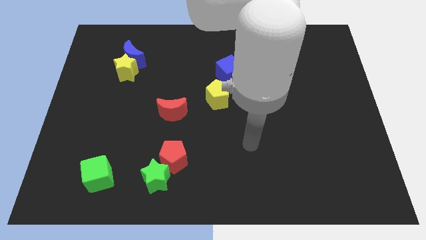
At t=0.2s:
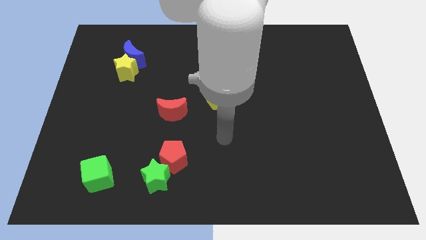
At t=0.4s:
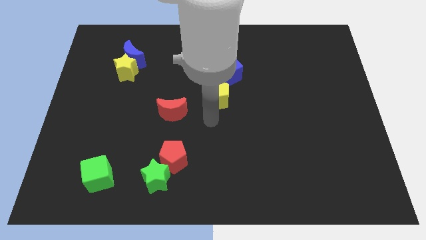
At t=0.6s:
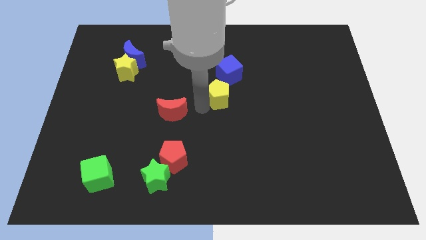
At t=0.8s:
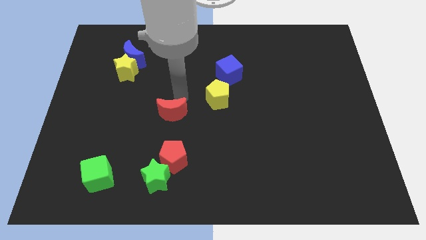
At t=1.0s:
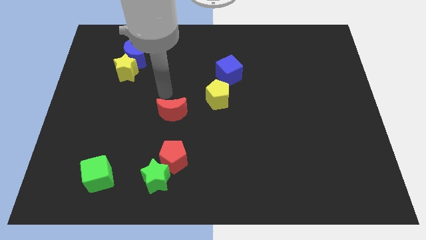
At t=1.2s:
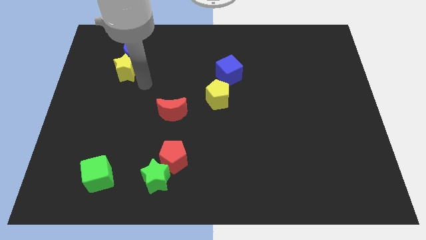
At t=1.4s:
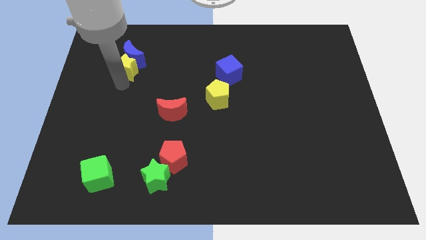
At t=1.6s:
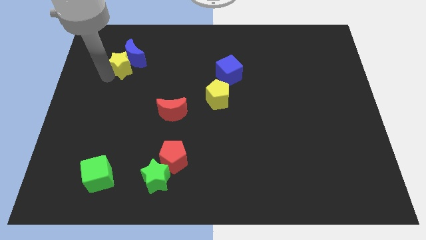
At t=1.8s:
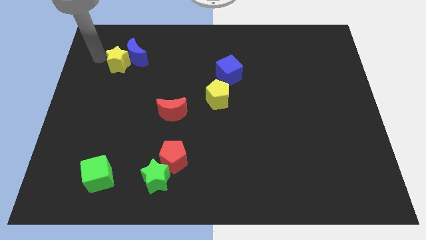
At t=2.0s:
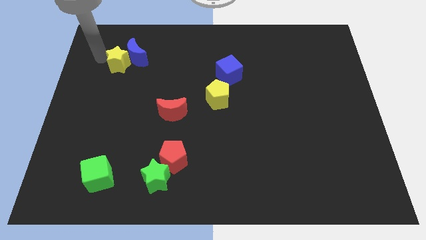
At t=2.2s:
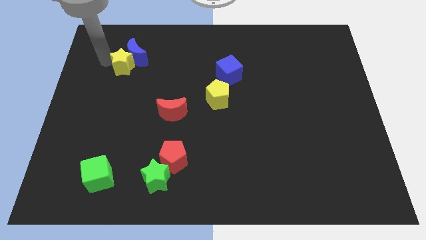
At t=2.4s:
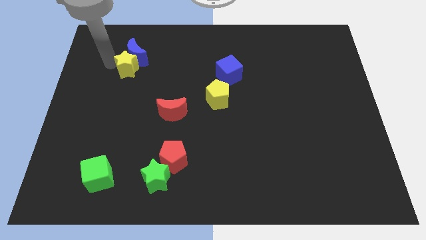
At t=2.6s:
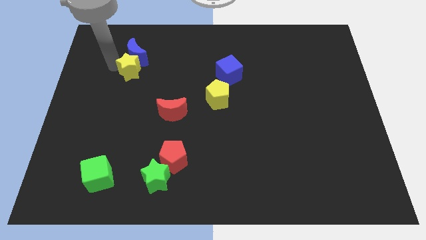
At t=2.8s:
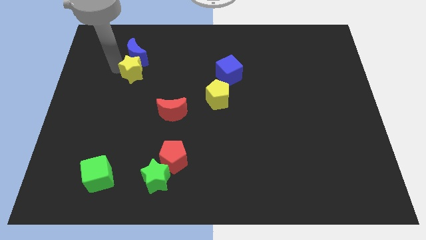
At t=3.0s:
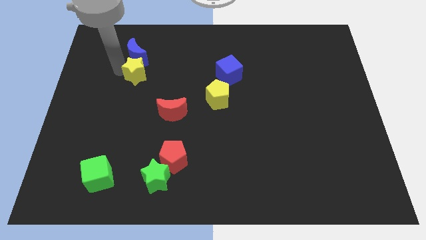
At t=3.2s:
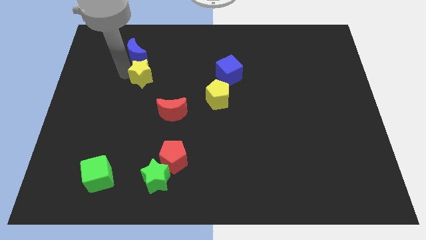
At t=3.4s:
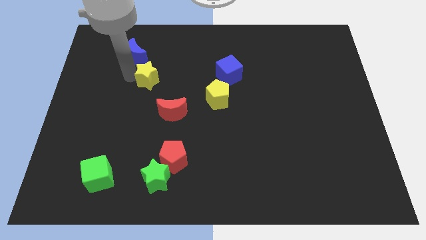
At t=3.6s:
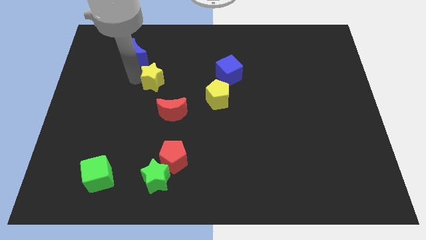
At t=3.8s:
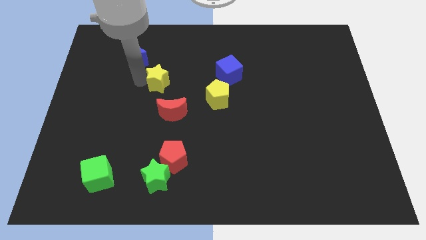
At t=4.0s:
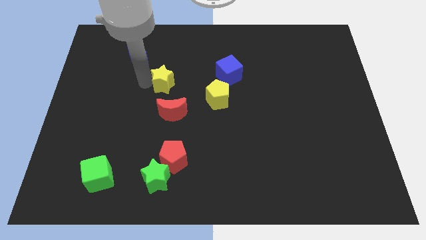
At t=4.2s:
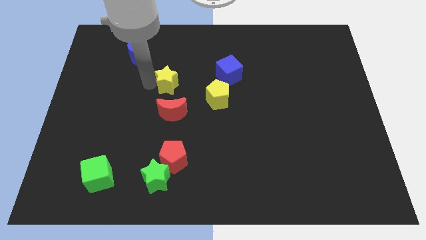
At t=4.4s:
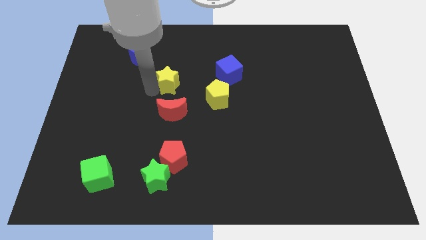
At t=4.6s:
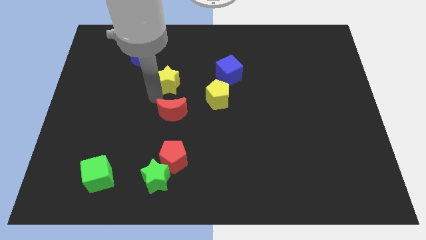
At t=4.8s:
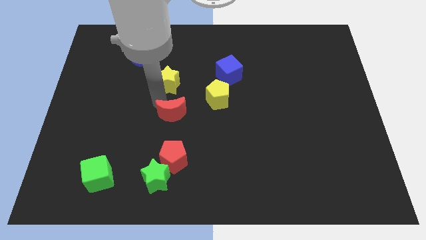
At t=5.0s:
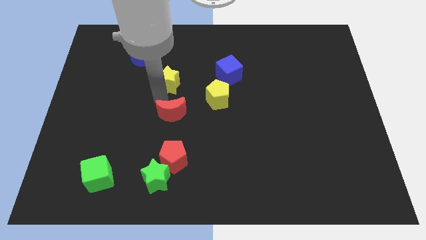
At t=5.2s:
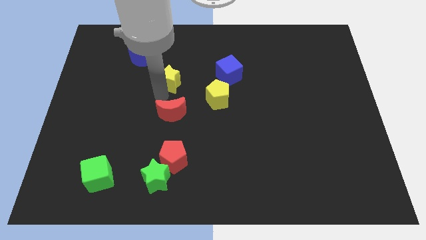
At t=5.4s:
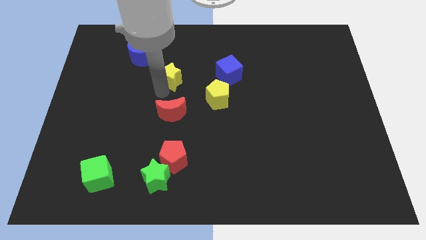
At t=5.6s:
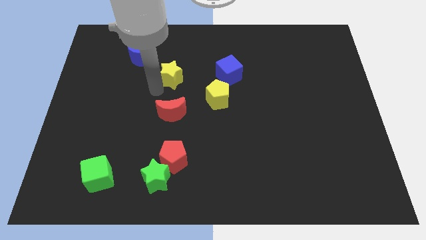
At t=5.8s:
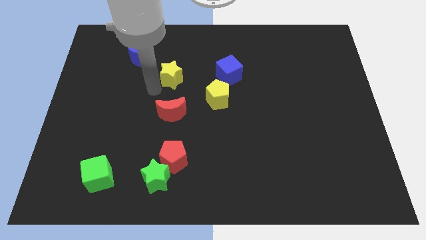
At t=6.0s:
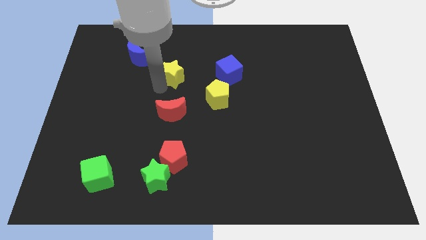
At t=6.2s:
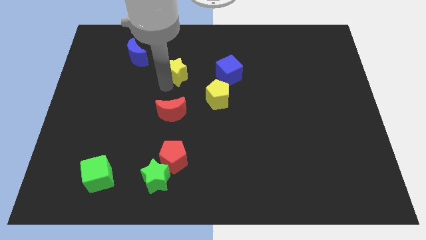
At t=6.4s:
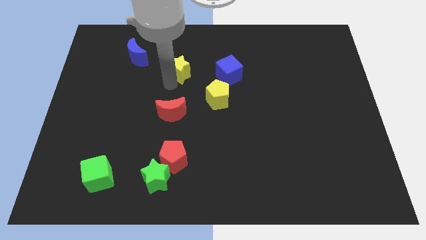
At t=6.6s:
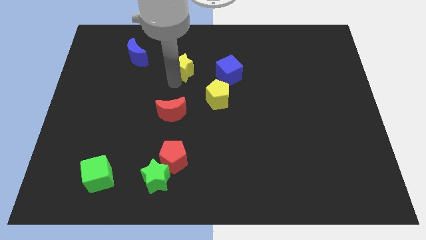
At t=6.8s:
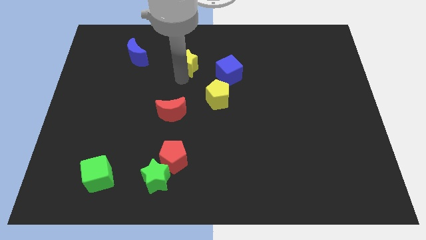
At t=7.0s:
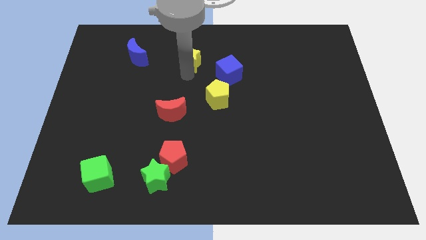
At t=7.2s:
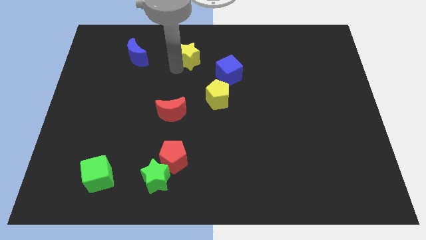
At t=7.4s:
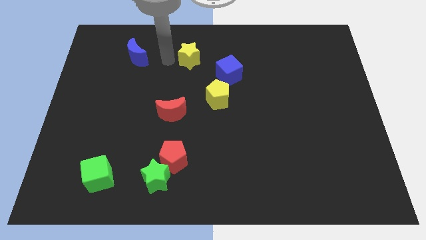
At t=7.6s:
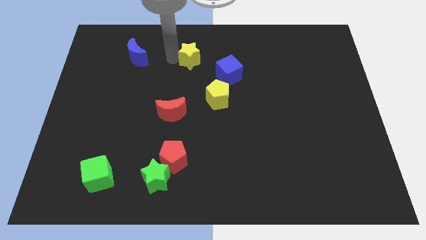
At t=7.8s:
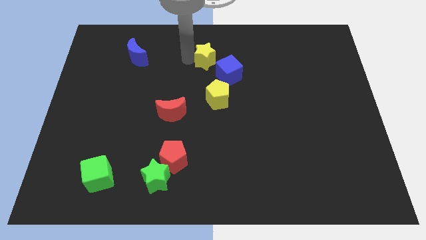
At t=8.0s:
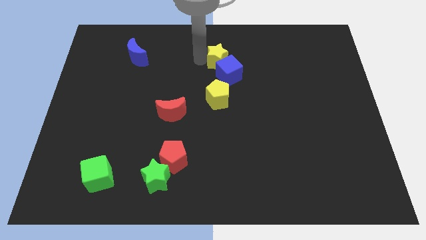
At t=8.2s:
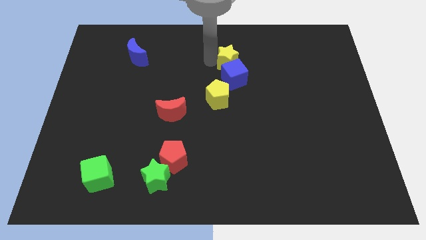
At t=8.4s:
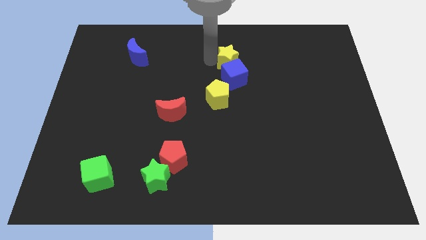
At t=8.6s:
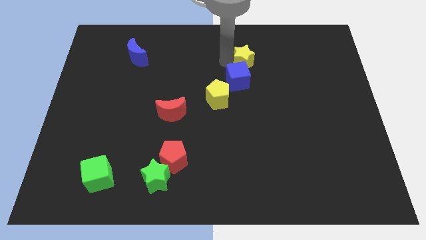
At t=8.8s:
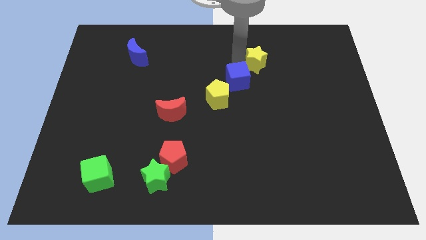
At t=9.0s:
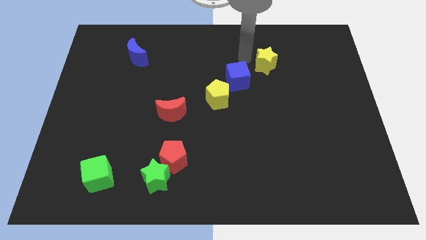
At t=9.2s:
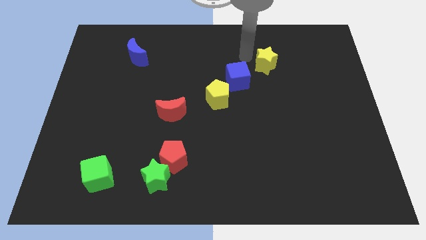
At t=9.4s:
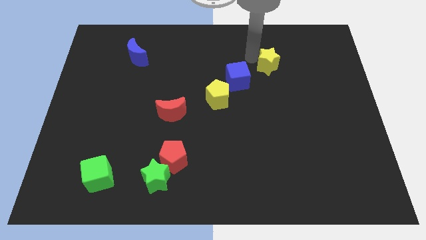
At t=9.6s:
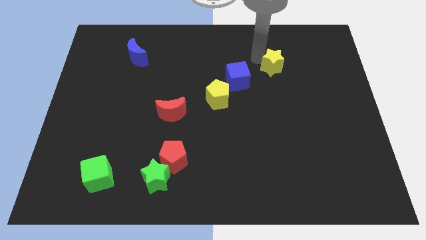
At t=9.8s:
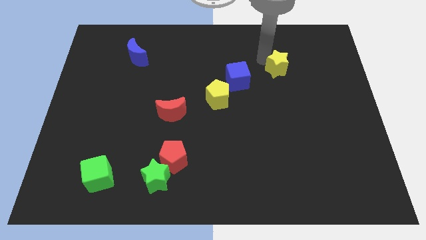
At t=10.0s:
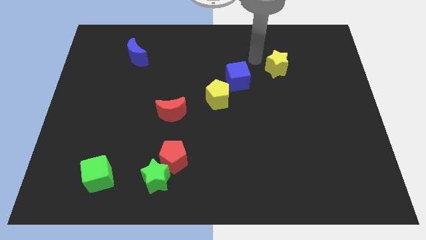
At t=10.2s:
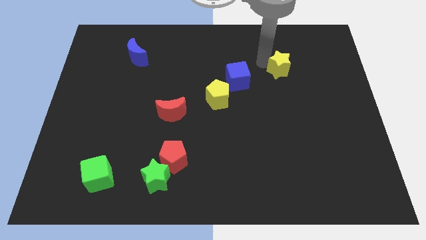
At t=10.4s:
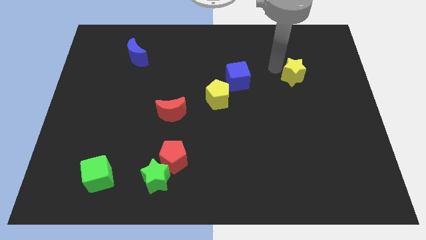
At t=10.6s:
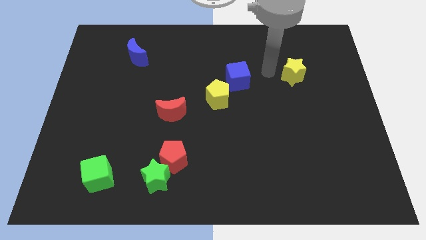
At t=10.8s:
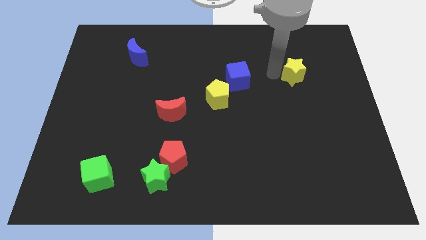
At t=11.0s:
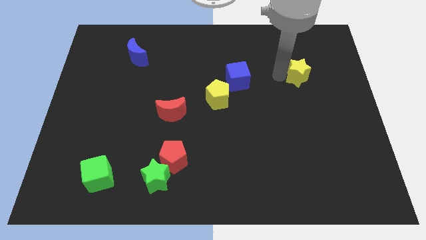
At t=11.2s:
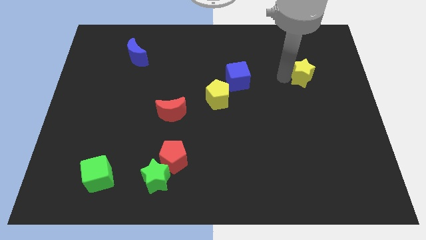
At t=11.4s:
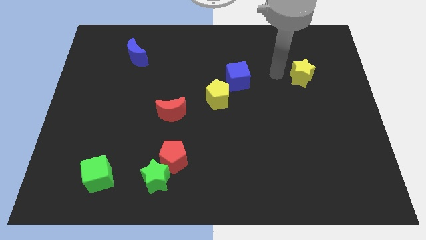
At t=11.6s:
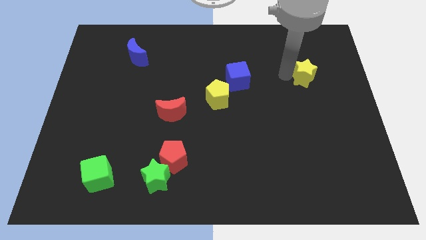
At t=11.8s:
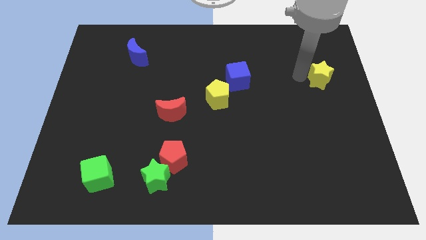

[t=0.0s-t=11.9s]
push the yellow star to the center right

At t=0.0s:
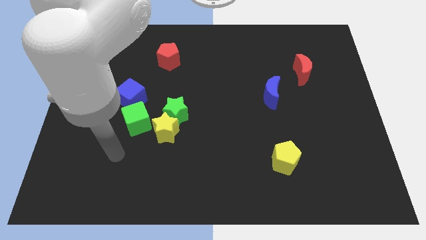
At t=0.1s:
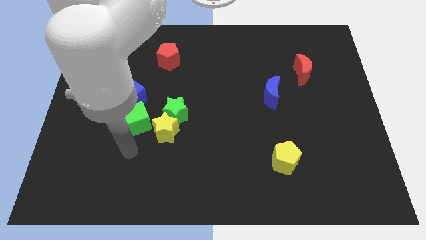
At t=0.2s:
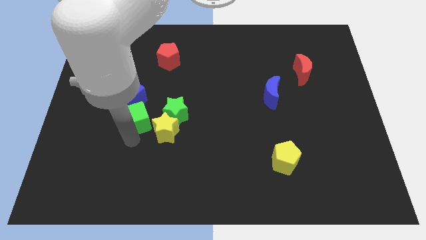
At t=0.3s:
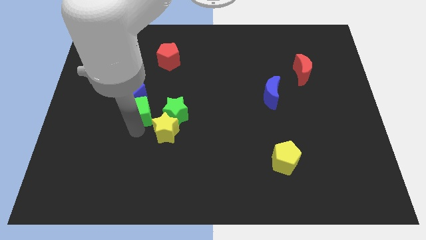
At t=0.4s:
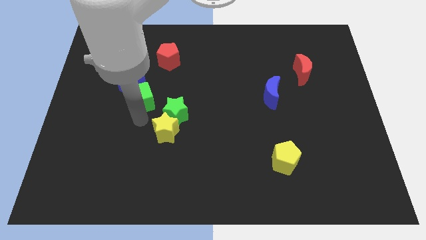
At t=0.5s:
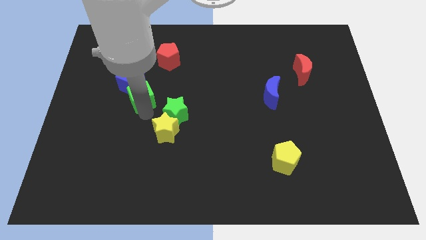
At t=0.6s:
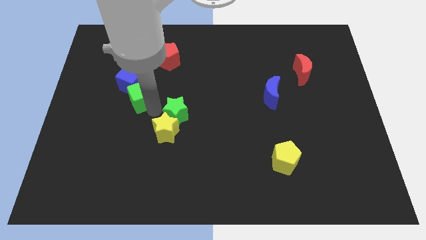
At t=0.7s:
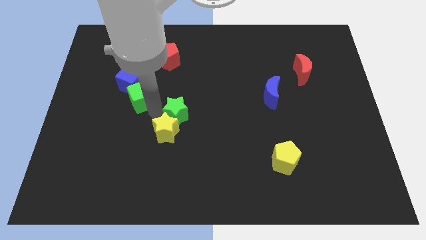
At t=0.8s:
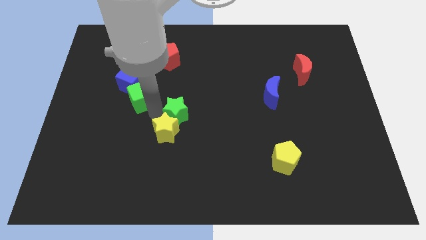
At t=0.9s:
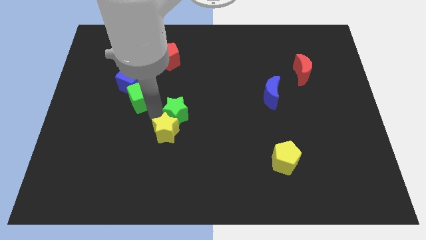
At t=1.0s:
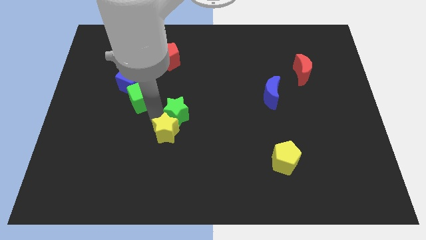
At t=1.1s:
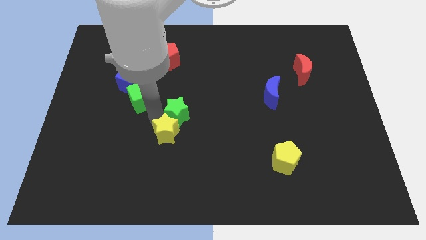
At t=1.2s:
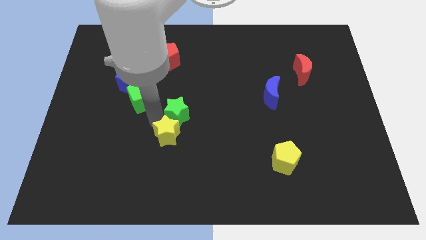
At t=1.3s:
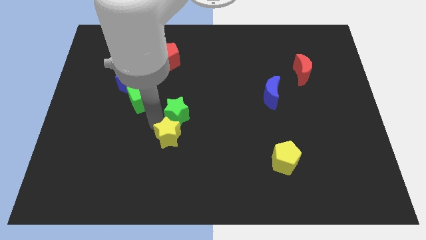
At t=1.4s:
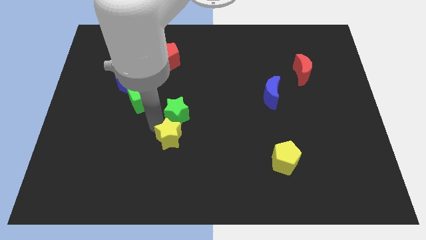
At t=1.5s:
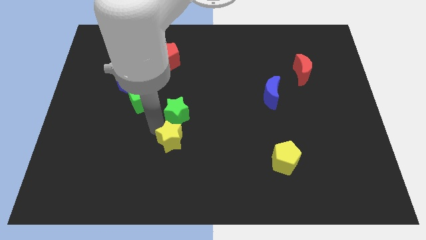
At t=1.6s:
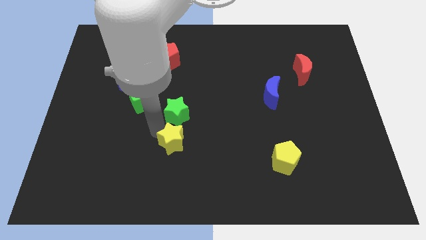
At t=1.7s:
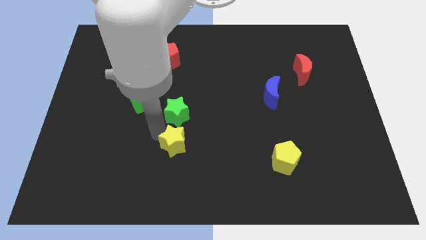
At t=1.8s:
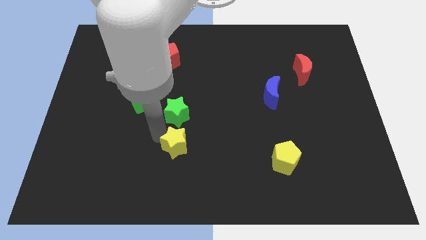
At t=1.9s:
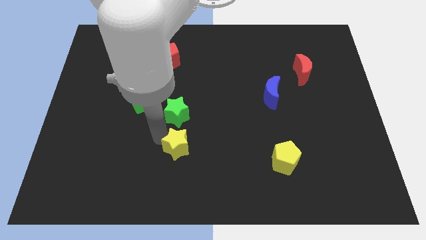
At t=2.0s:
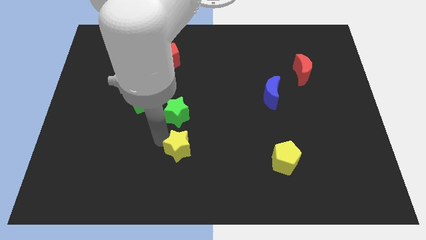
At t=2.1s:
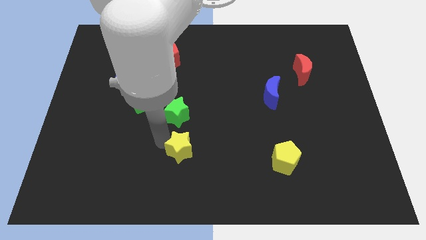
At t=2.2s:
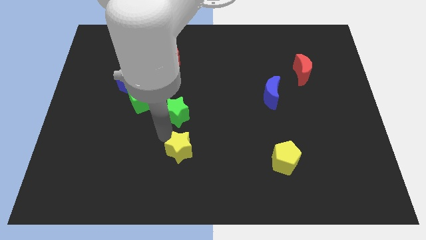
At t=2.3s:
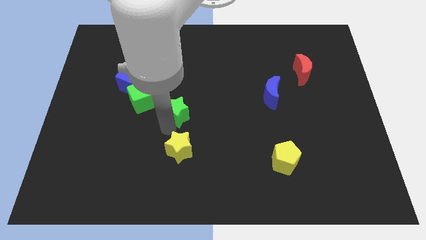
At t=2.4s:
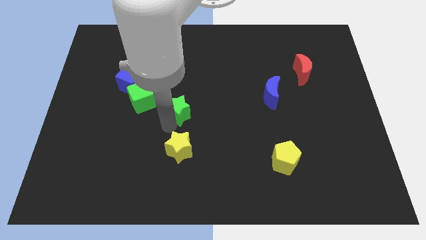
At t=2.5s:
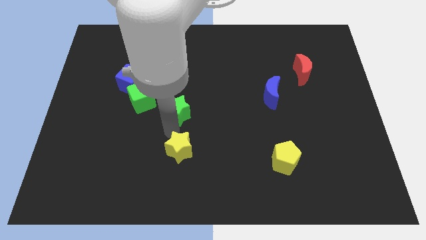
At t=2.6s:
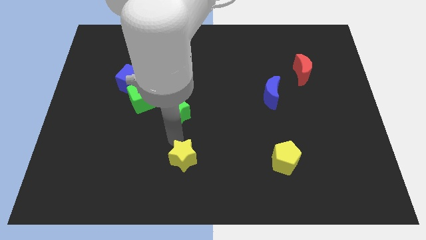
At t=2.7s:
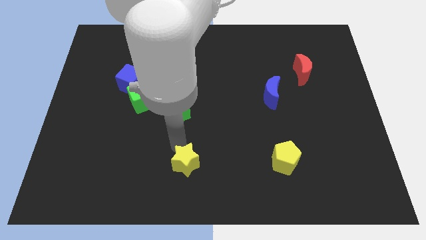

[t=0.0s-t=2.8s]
move the yellow star to the bottom side
